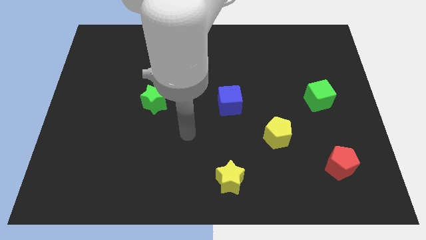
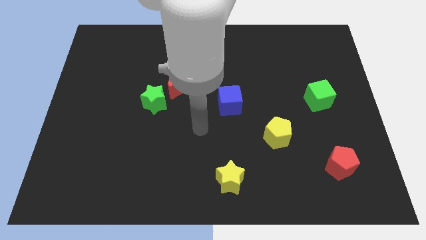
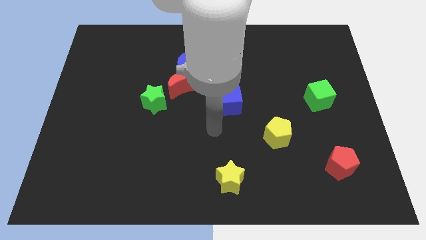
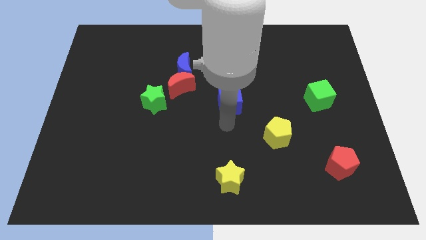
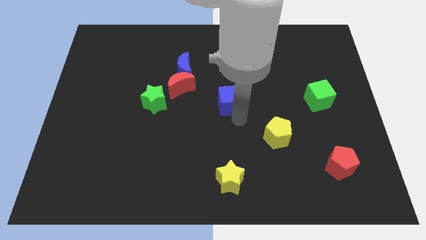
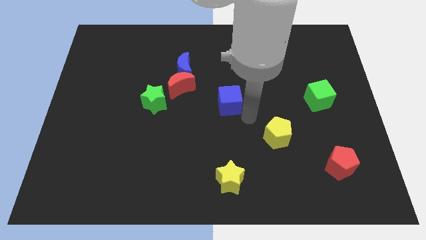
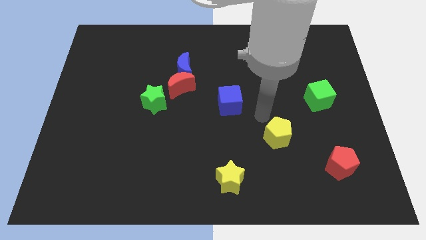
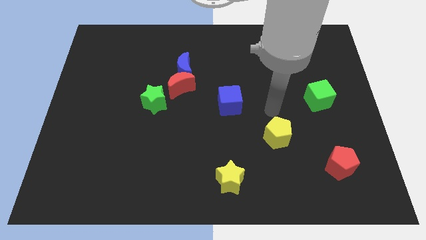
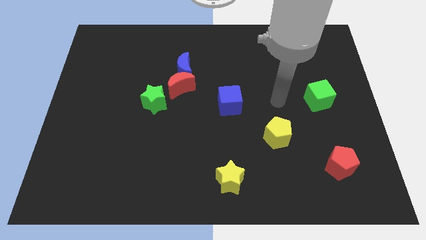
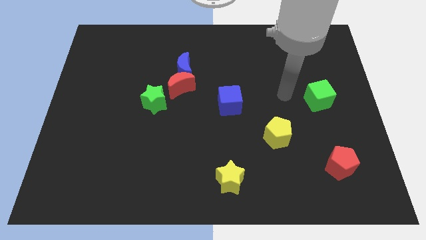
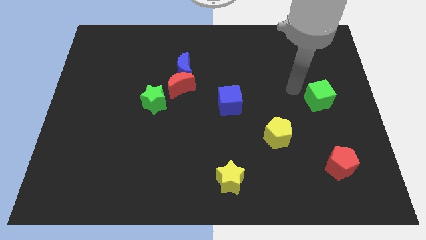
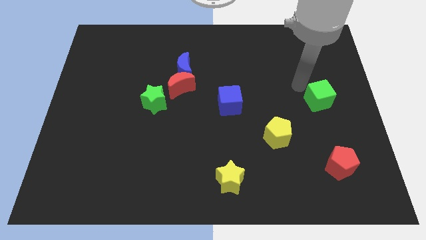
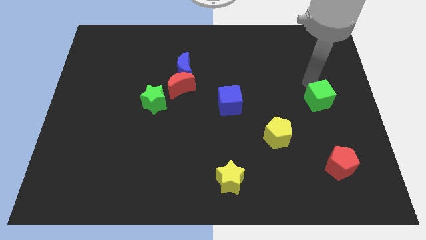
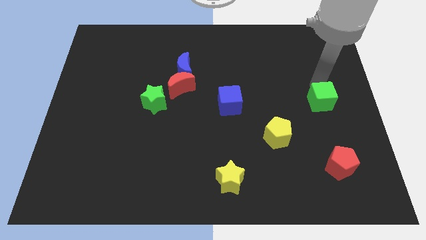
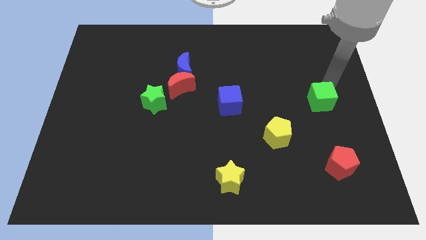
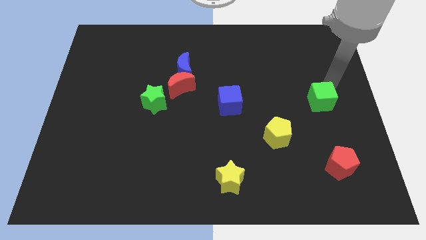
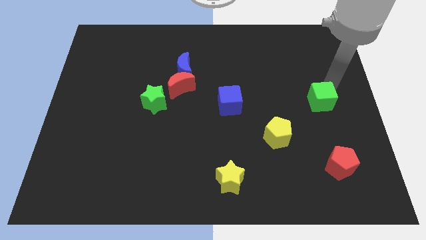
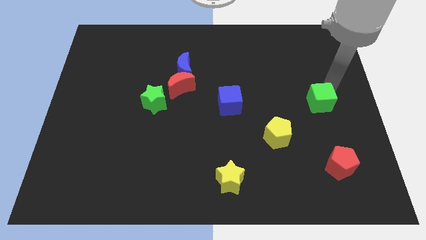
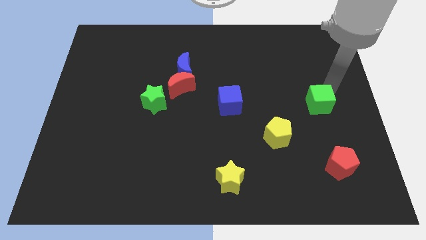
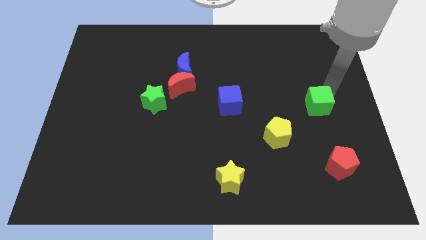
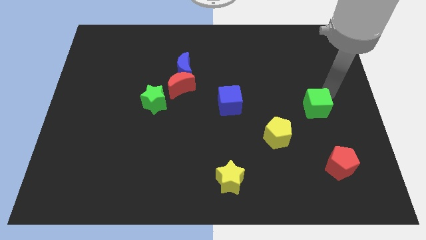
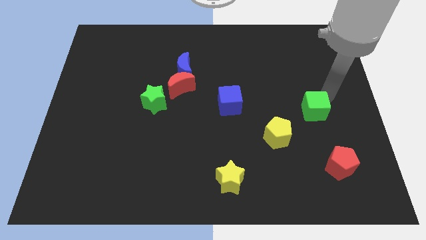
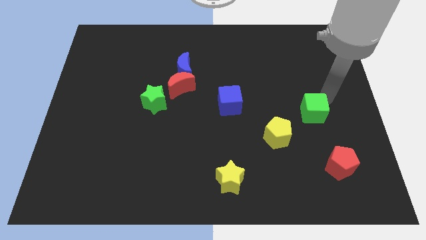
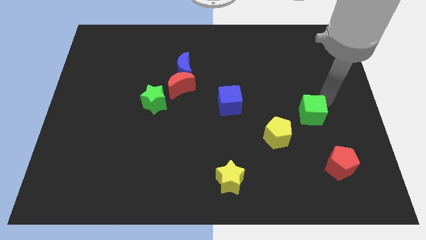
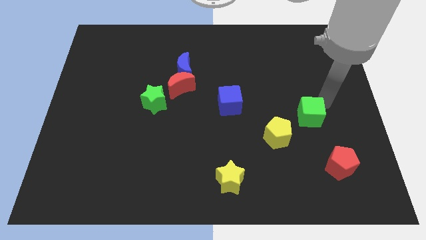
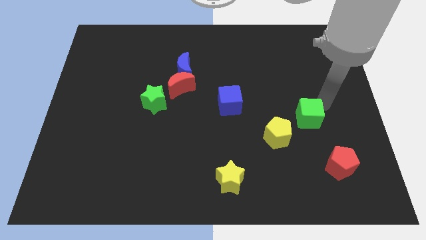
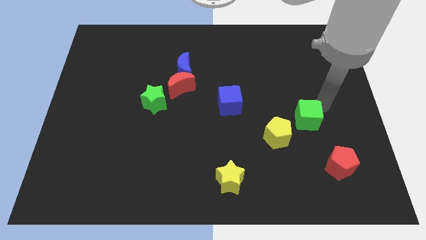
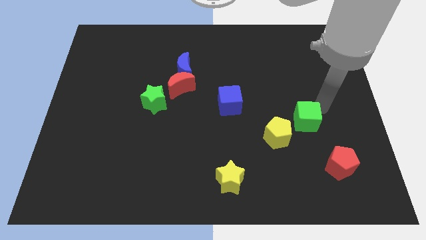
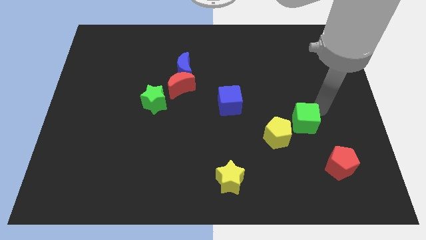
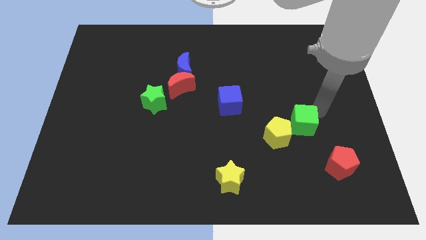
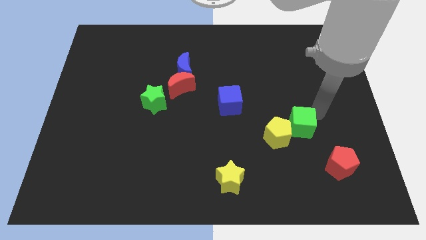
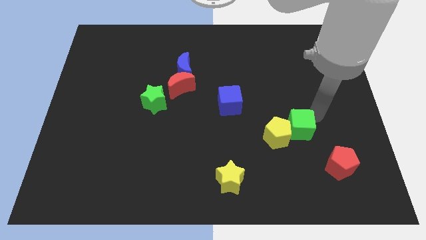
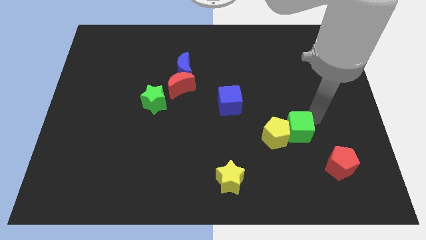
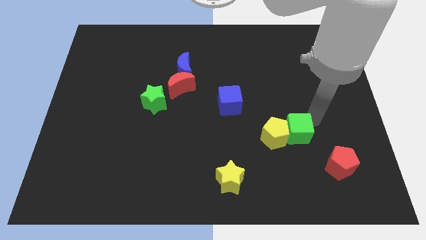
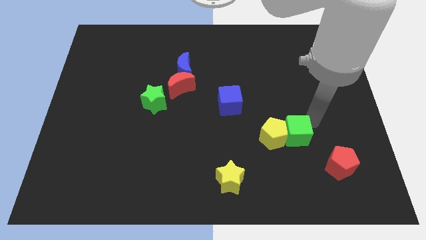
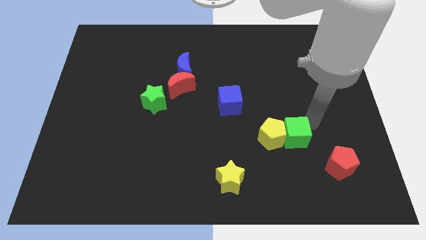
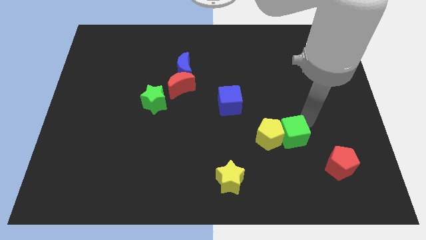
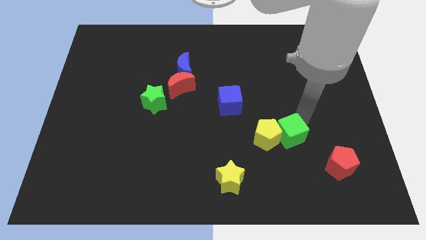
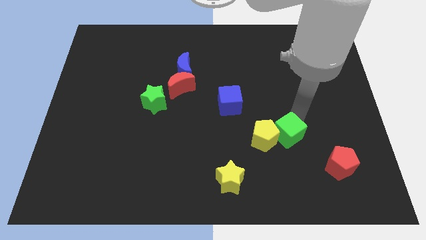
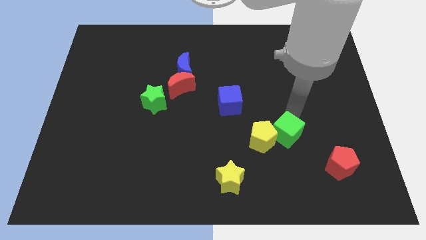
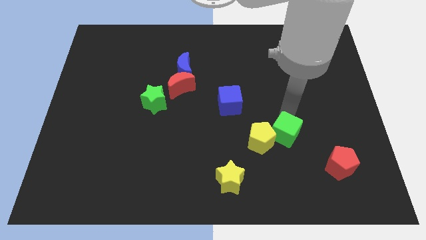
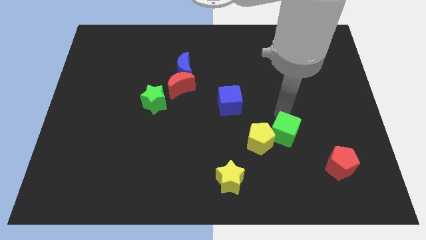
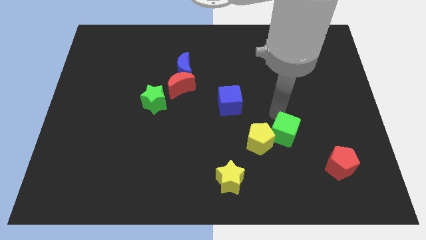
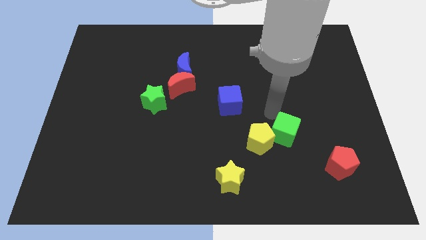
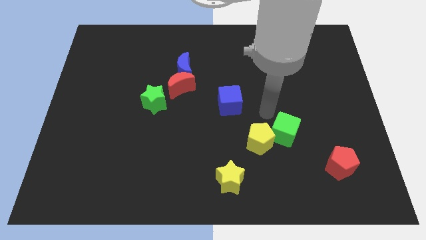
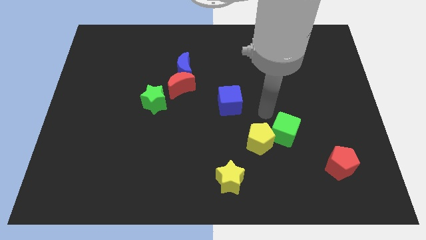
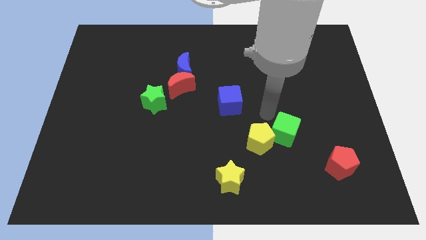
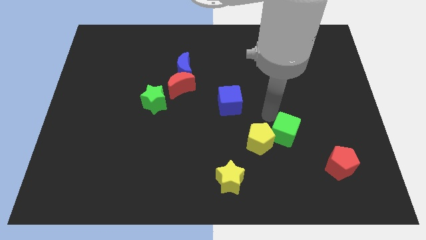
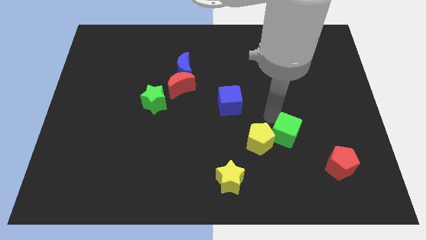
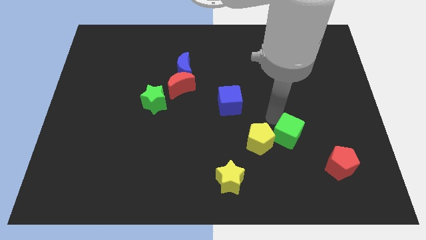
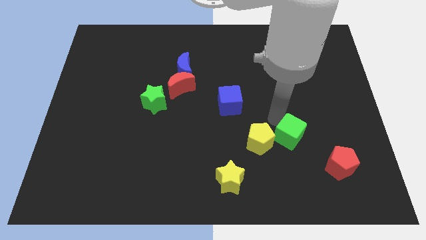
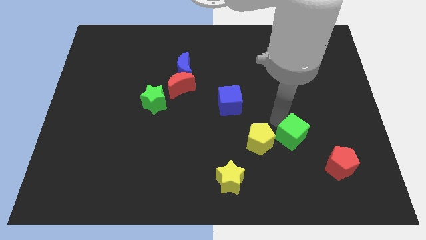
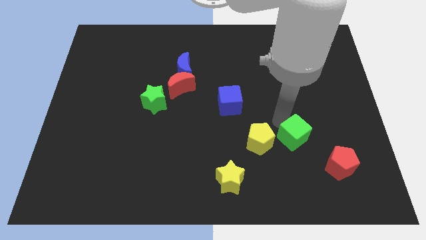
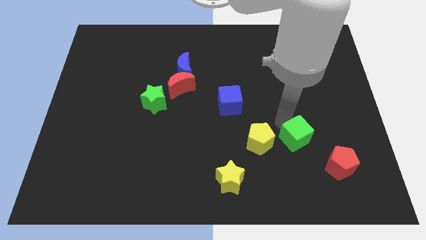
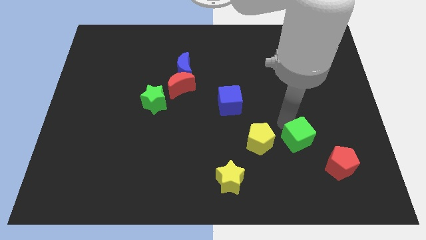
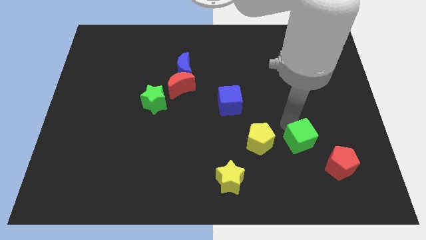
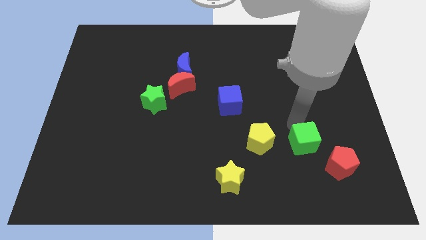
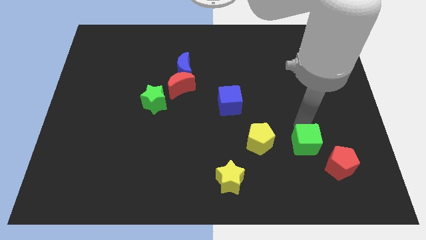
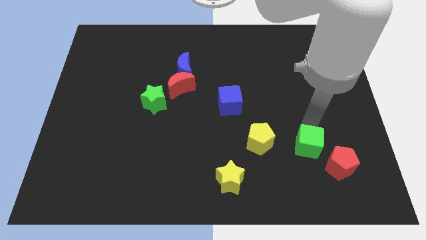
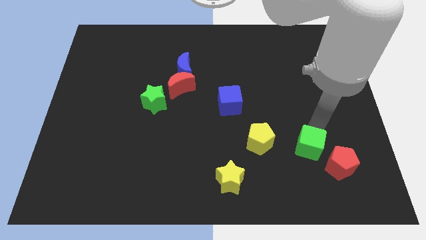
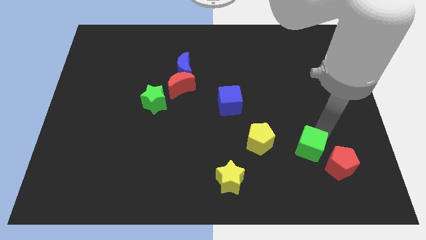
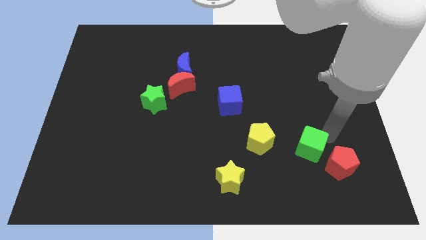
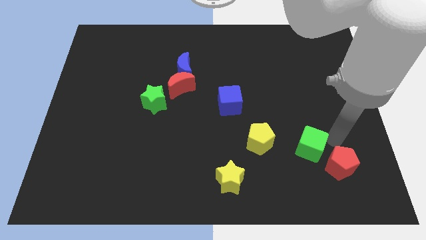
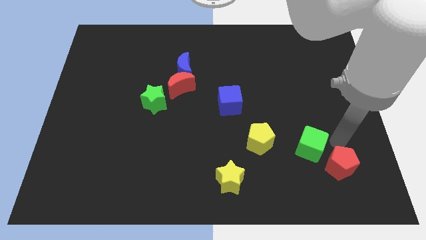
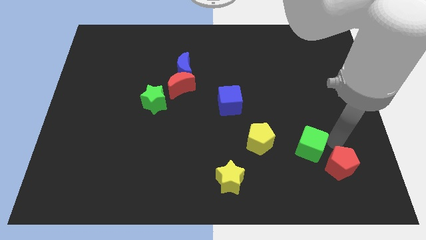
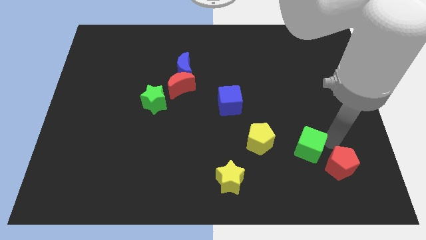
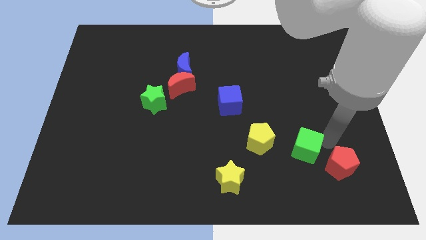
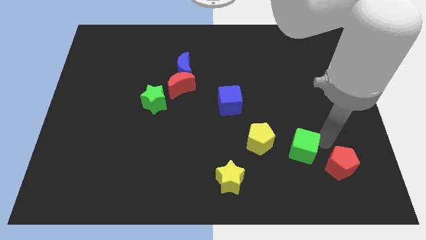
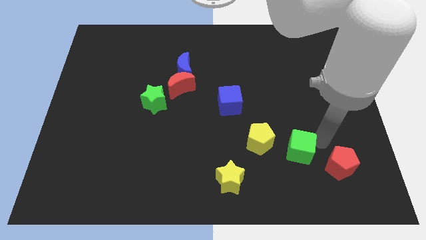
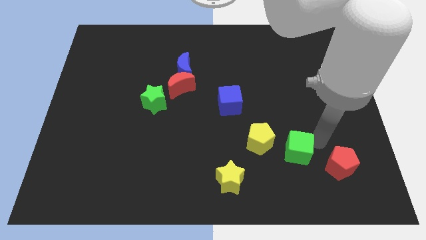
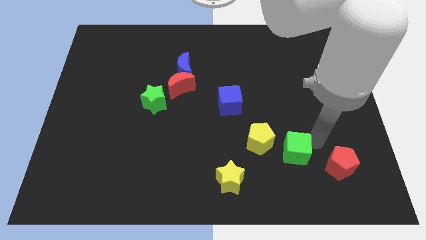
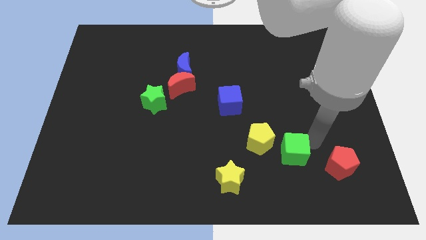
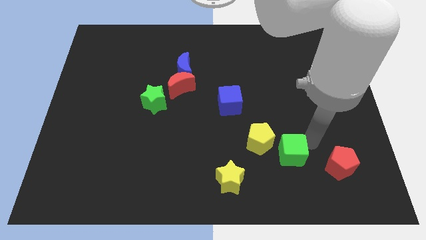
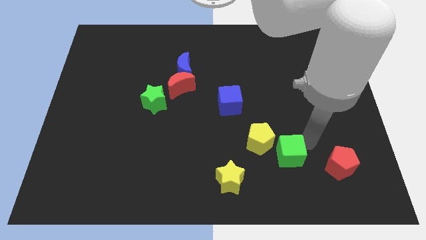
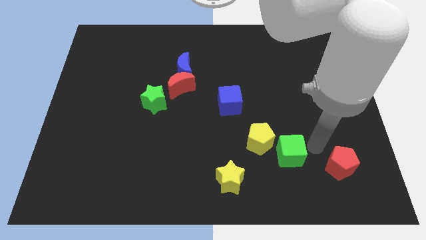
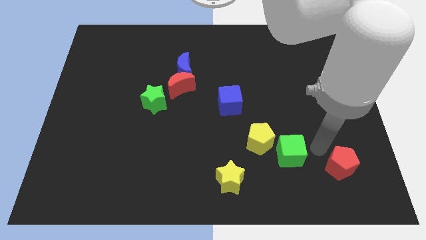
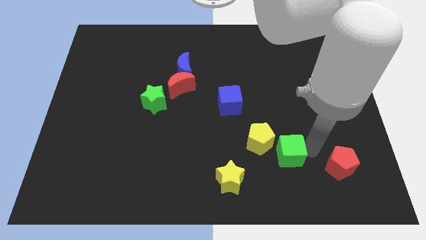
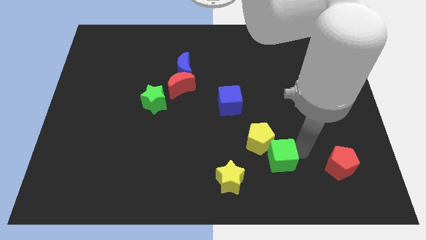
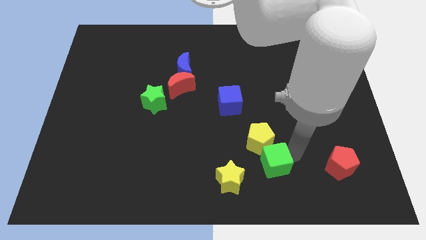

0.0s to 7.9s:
move the green cube to the top right side of the yellow star
